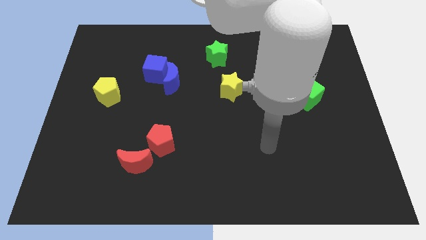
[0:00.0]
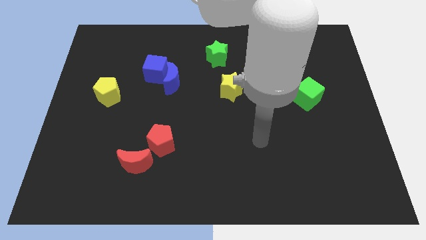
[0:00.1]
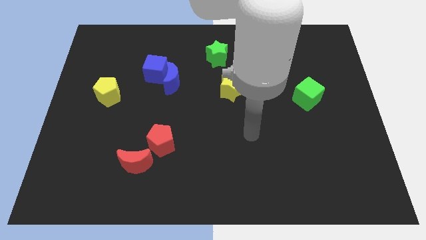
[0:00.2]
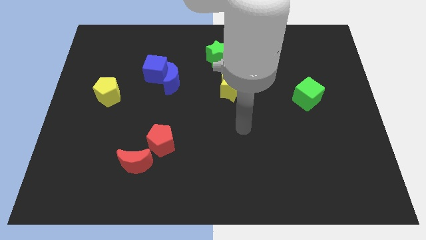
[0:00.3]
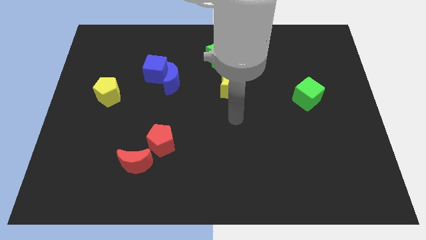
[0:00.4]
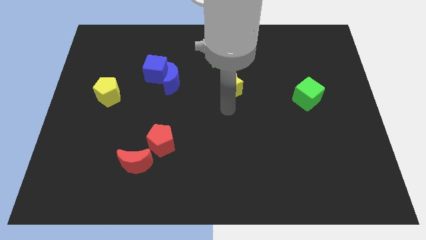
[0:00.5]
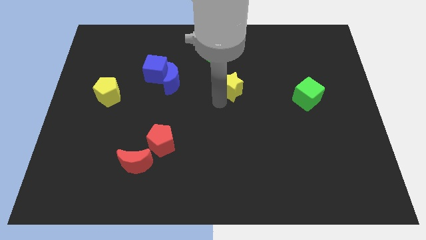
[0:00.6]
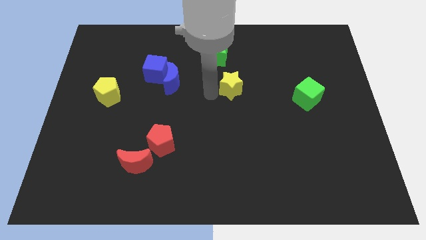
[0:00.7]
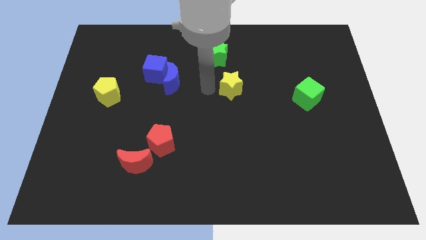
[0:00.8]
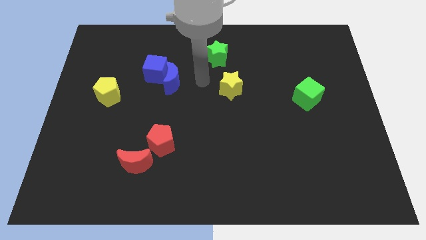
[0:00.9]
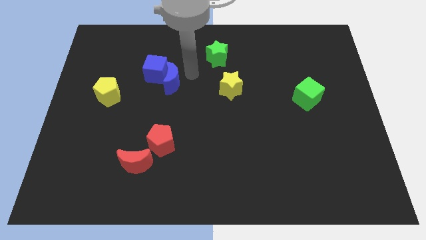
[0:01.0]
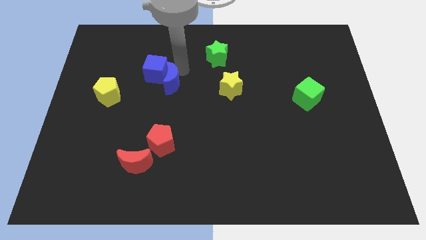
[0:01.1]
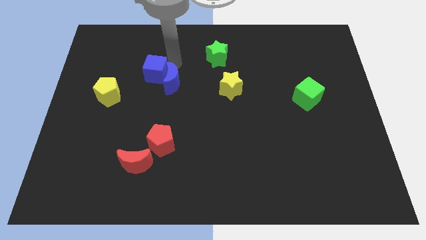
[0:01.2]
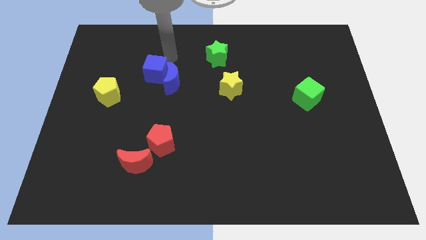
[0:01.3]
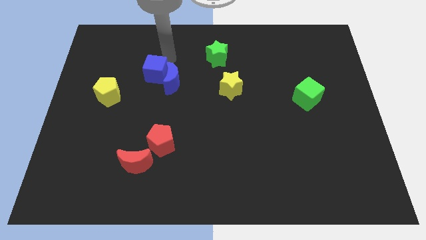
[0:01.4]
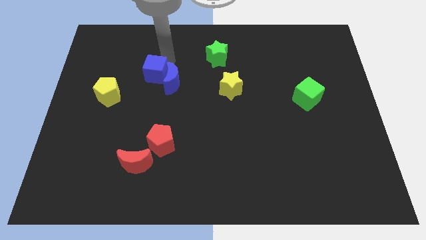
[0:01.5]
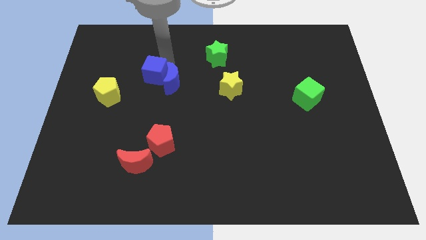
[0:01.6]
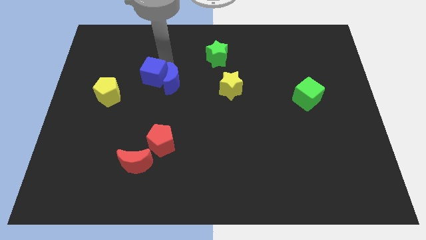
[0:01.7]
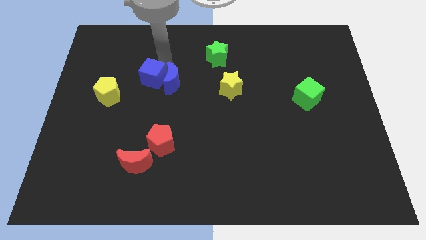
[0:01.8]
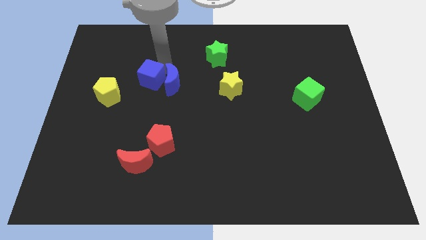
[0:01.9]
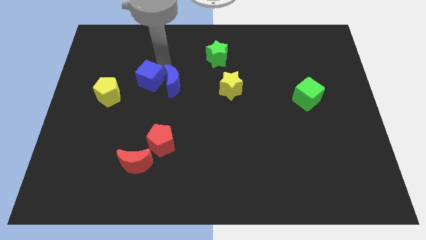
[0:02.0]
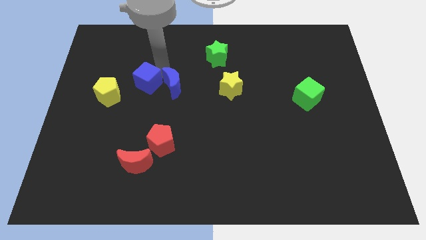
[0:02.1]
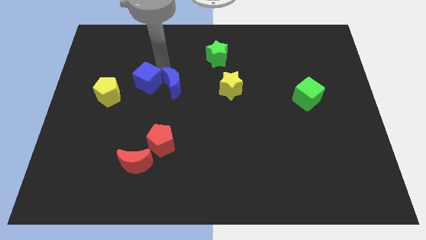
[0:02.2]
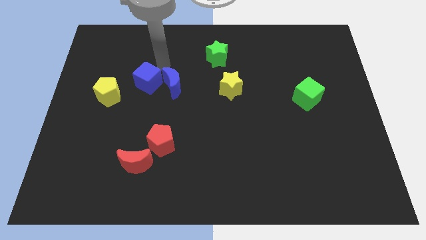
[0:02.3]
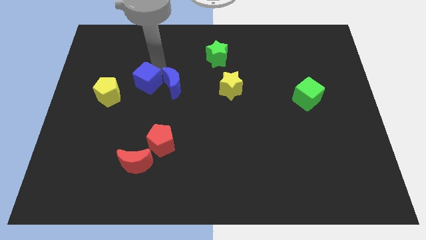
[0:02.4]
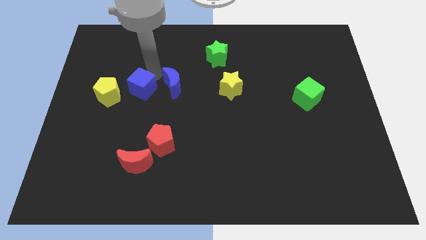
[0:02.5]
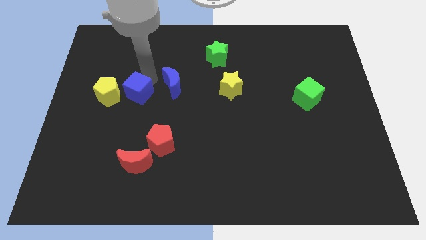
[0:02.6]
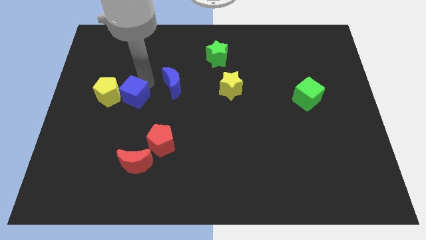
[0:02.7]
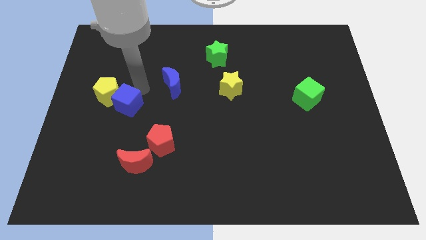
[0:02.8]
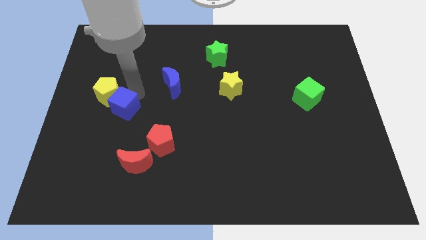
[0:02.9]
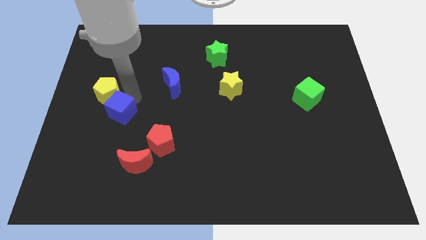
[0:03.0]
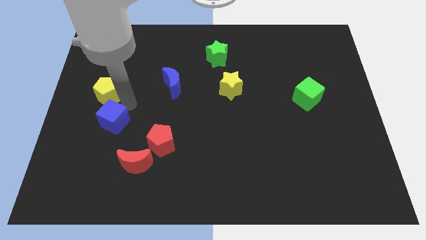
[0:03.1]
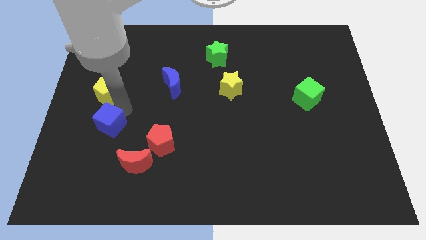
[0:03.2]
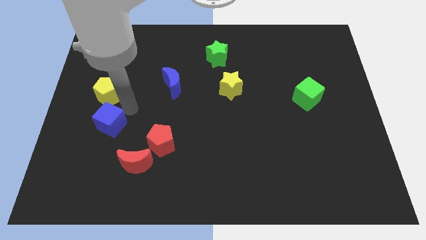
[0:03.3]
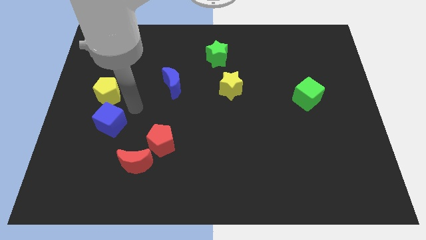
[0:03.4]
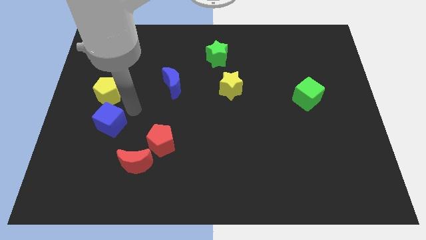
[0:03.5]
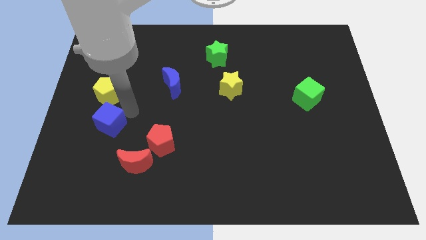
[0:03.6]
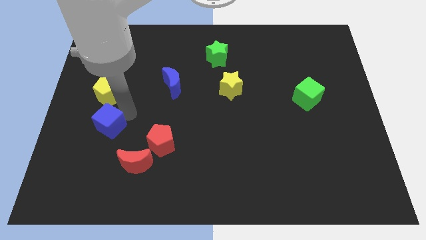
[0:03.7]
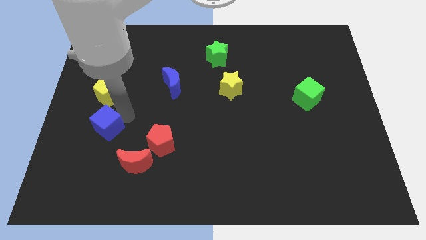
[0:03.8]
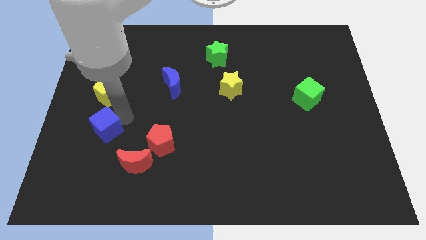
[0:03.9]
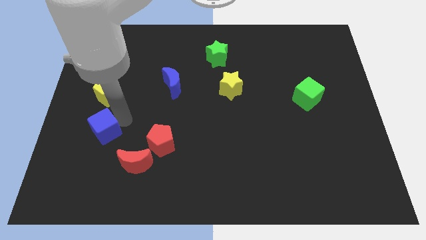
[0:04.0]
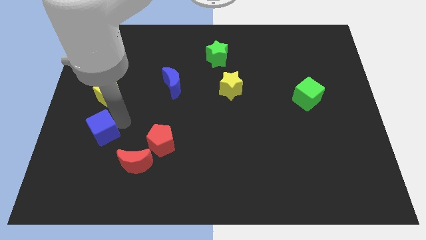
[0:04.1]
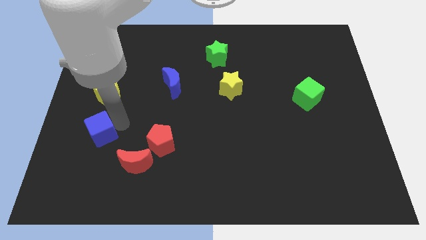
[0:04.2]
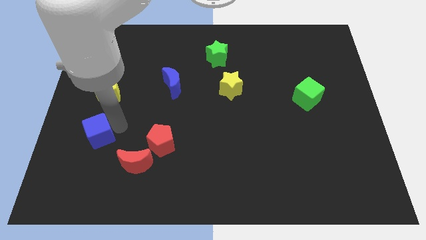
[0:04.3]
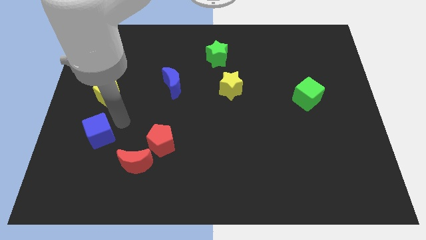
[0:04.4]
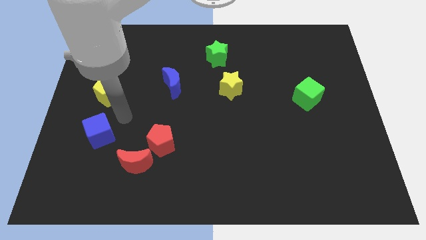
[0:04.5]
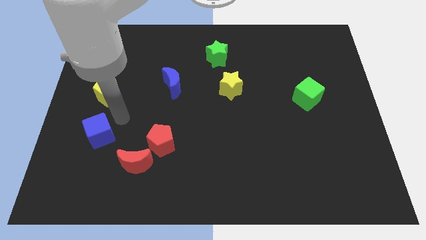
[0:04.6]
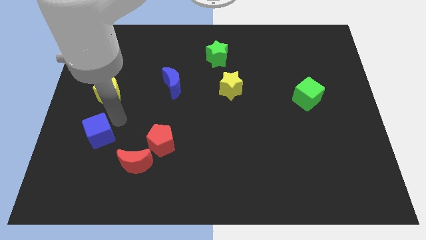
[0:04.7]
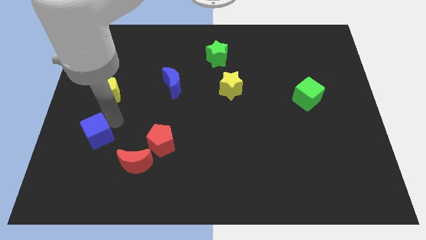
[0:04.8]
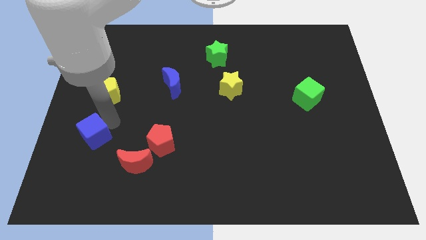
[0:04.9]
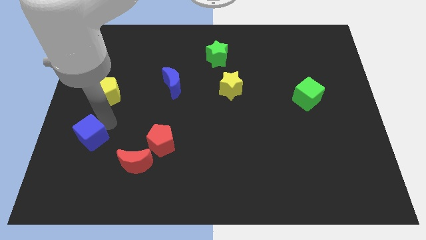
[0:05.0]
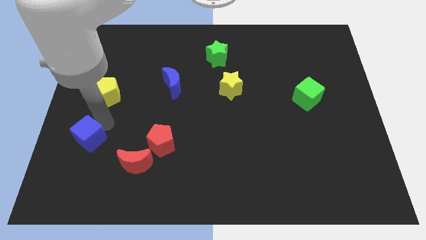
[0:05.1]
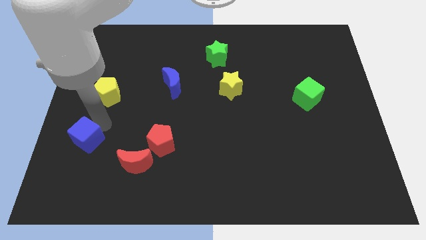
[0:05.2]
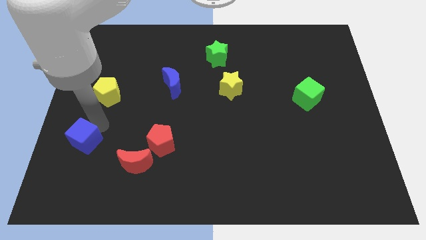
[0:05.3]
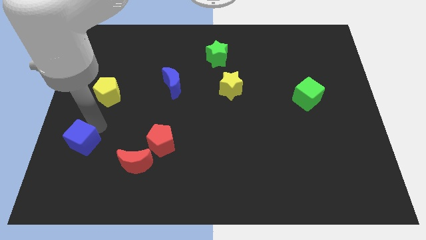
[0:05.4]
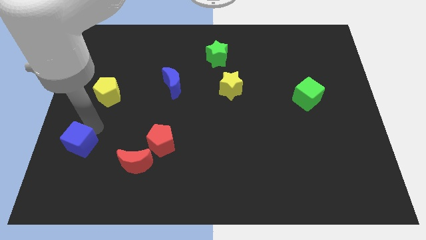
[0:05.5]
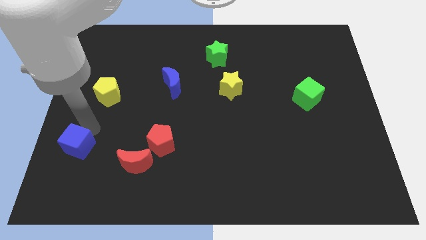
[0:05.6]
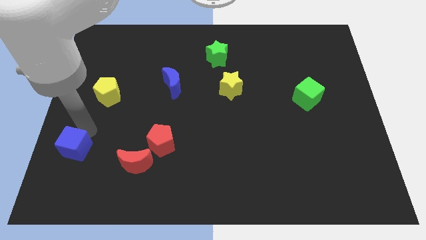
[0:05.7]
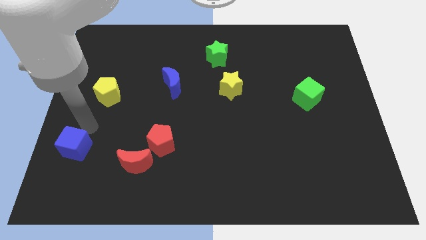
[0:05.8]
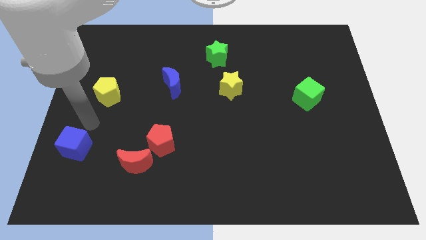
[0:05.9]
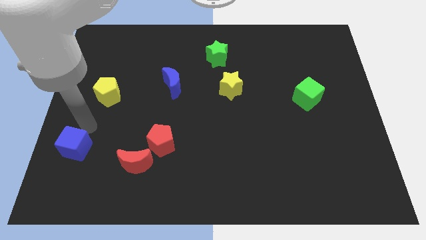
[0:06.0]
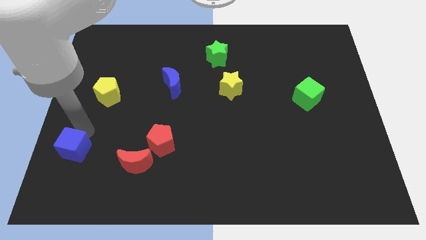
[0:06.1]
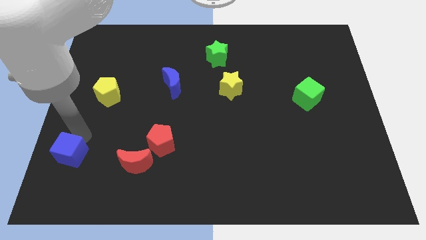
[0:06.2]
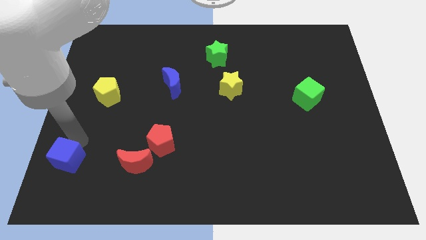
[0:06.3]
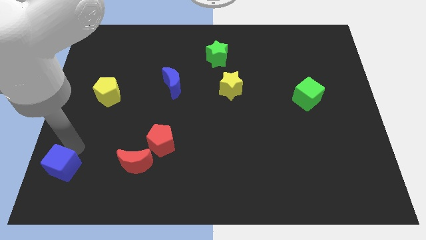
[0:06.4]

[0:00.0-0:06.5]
push the blue cube to the bottom left corner
